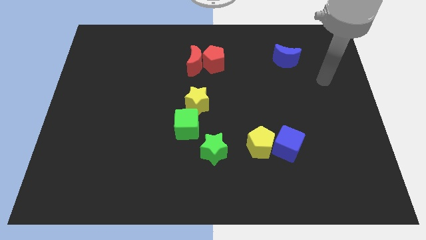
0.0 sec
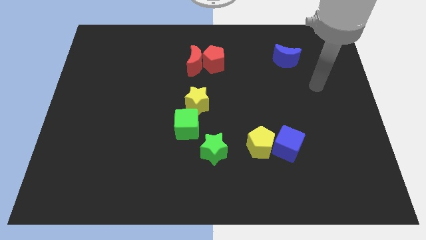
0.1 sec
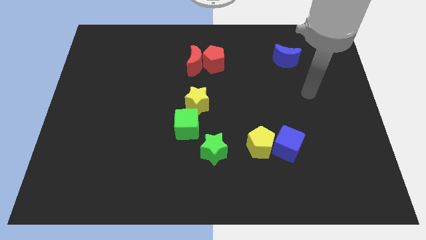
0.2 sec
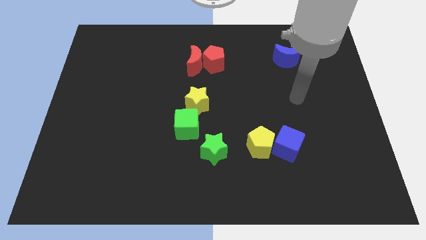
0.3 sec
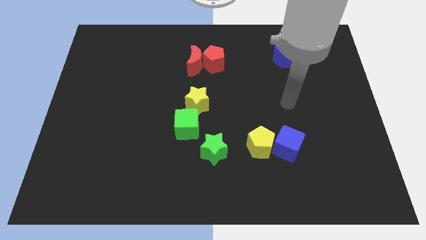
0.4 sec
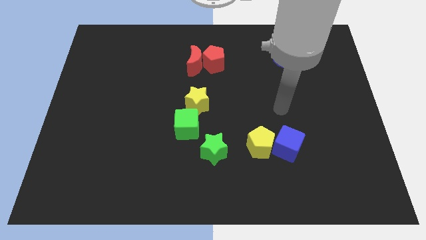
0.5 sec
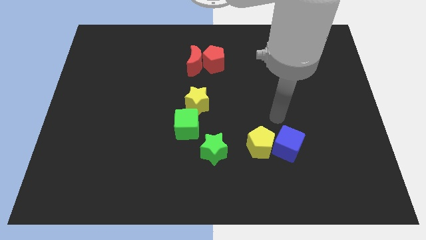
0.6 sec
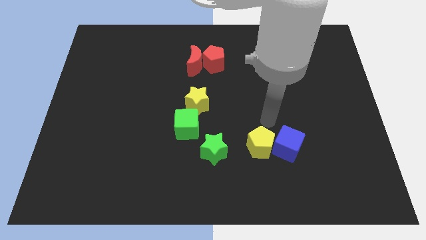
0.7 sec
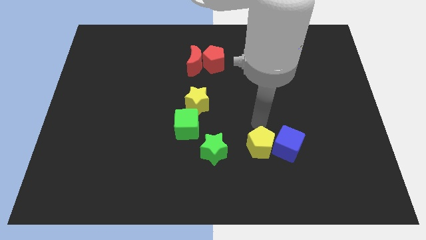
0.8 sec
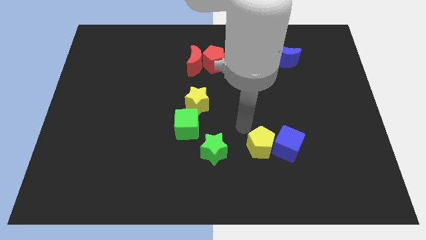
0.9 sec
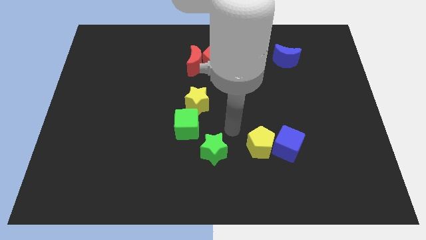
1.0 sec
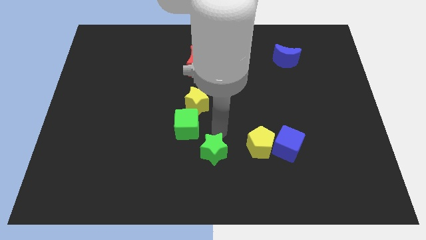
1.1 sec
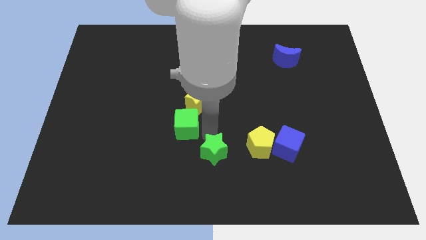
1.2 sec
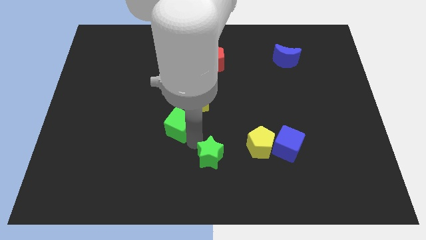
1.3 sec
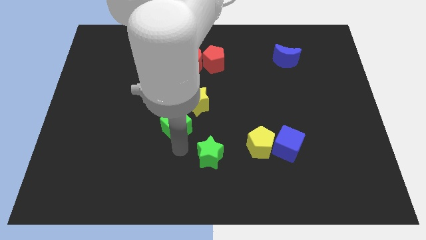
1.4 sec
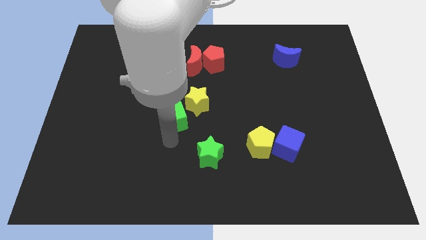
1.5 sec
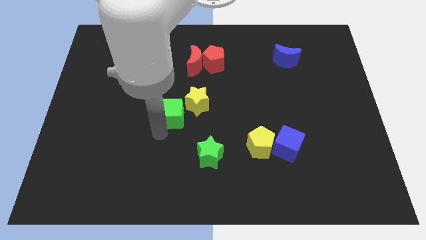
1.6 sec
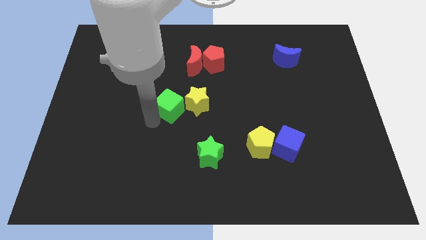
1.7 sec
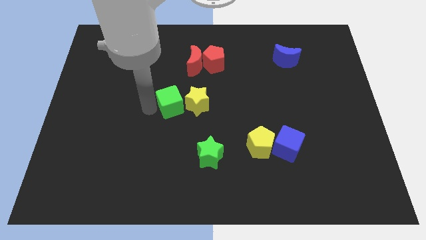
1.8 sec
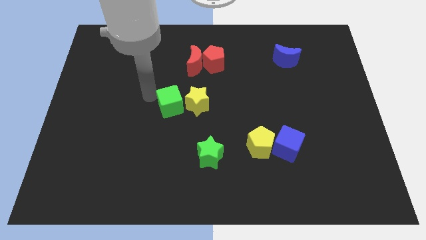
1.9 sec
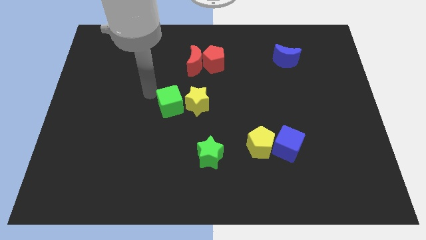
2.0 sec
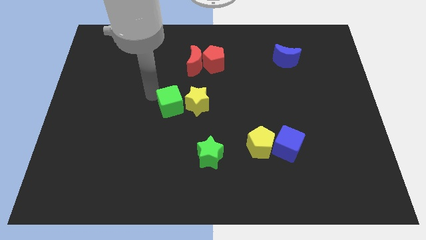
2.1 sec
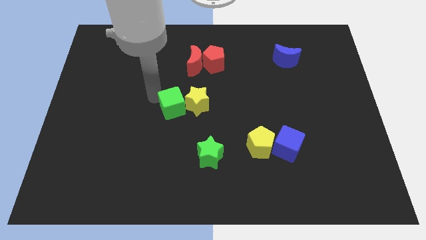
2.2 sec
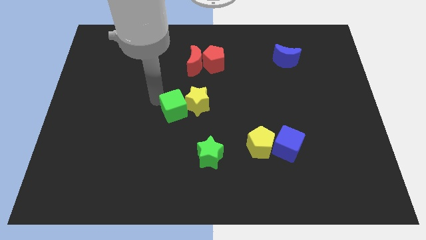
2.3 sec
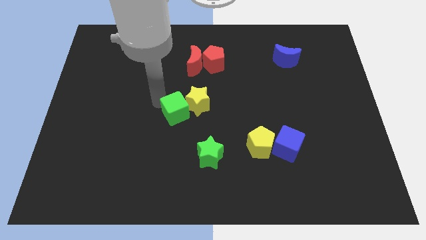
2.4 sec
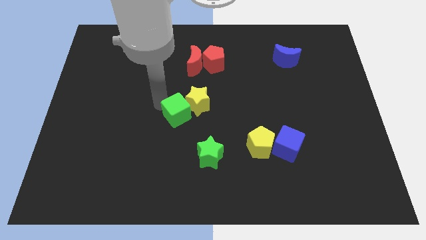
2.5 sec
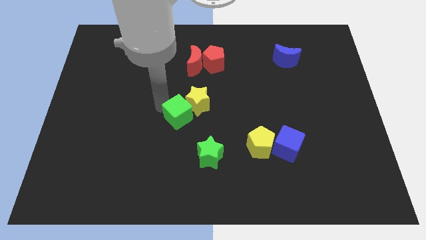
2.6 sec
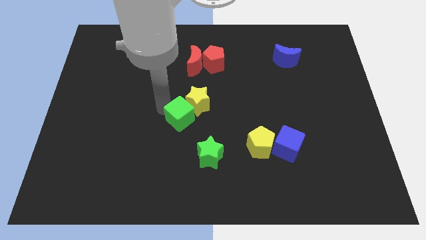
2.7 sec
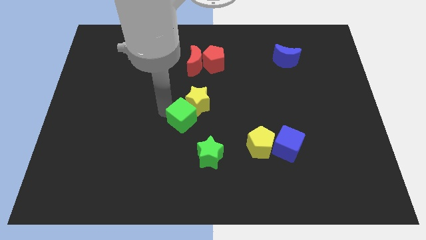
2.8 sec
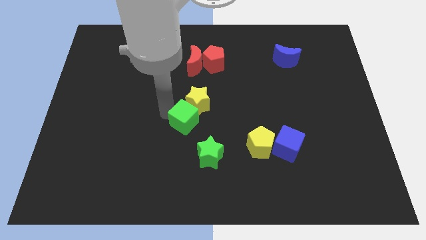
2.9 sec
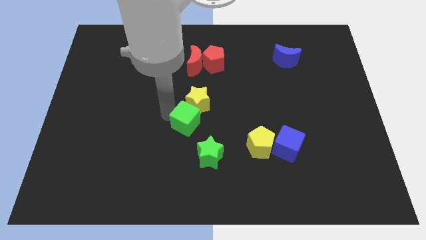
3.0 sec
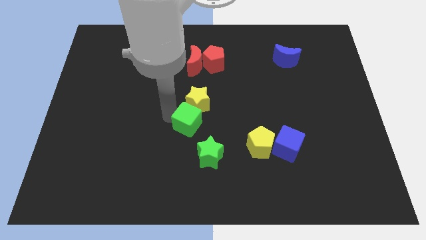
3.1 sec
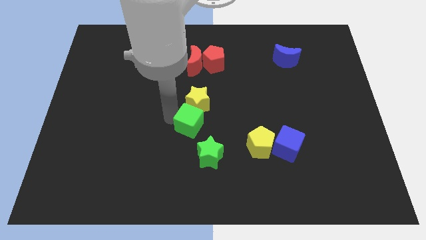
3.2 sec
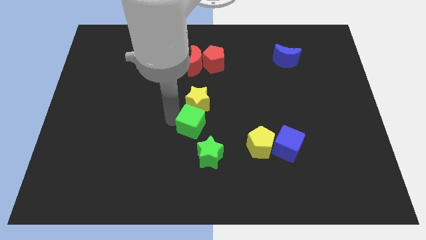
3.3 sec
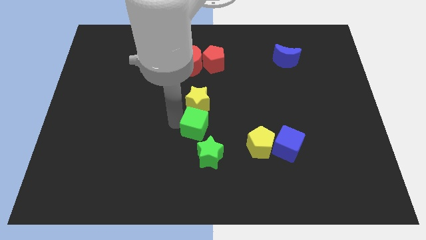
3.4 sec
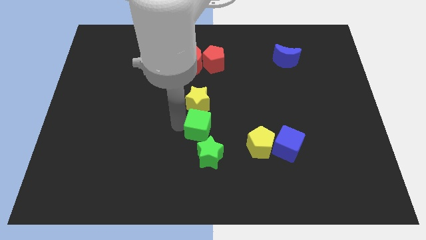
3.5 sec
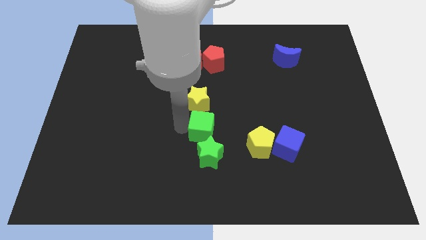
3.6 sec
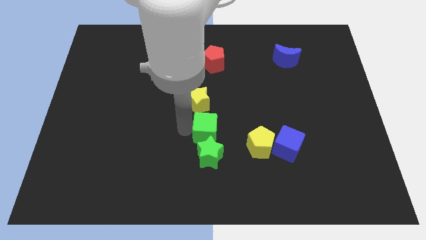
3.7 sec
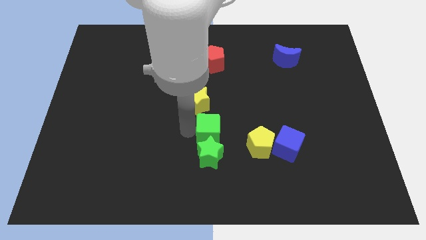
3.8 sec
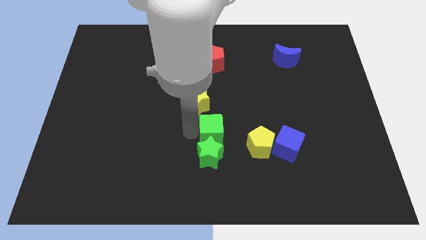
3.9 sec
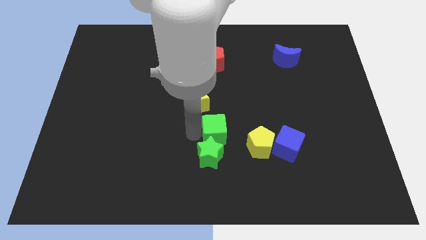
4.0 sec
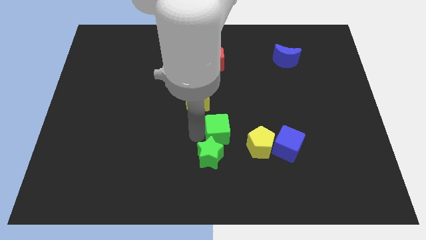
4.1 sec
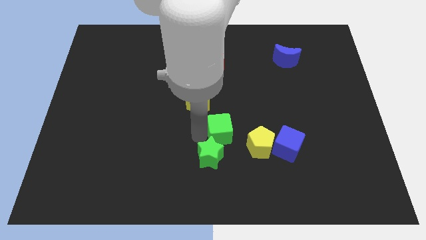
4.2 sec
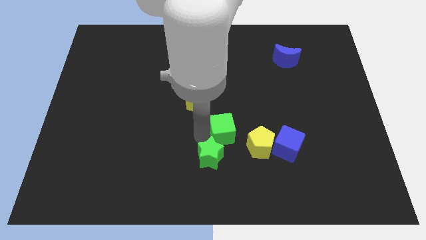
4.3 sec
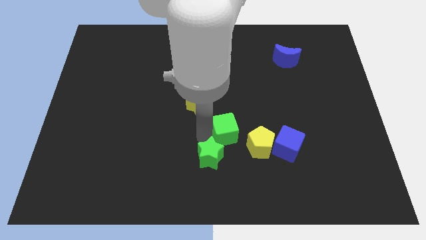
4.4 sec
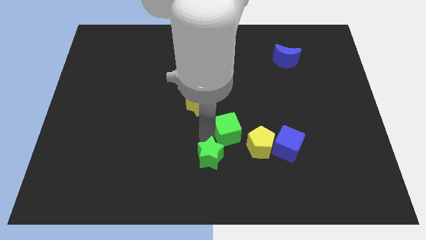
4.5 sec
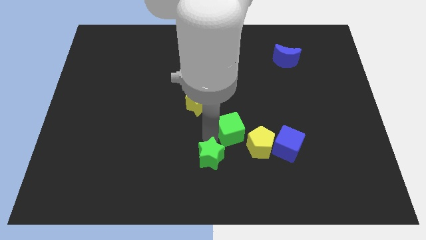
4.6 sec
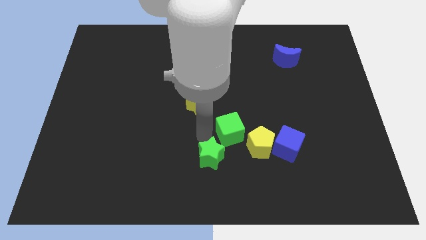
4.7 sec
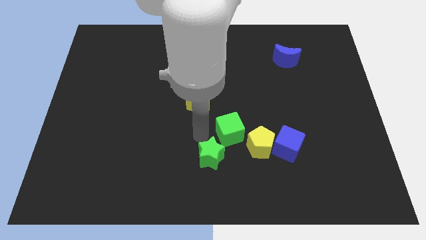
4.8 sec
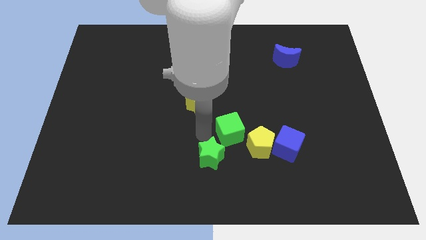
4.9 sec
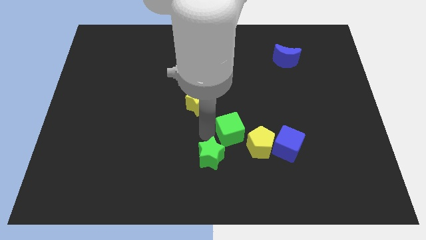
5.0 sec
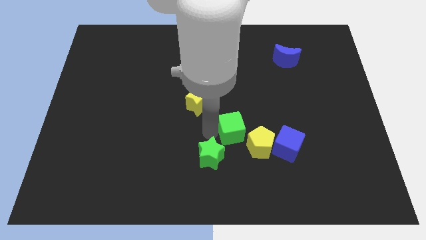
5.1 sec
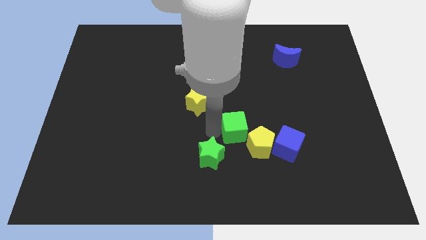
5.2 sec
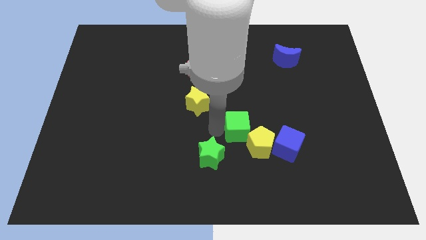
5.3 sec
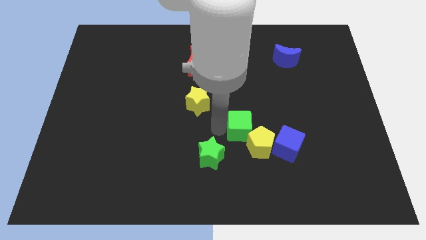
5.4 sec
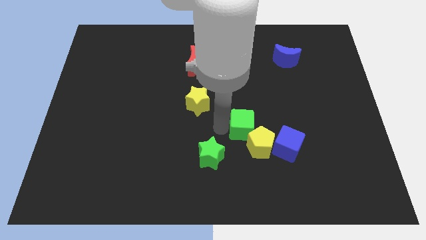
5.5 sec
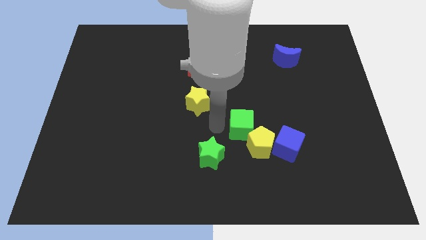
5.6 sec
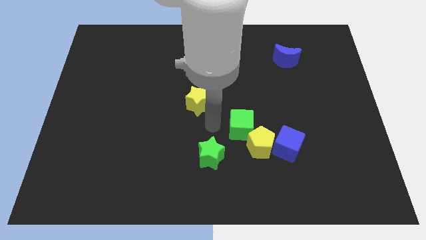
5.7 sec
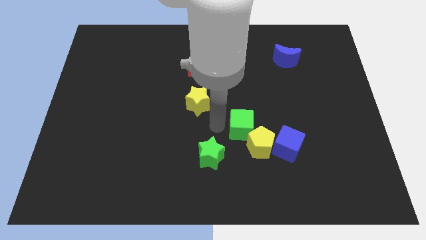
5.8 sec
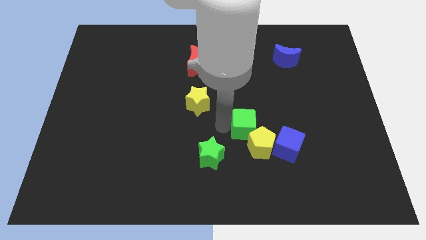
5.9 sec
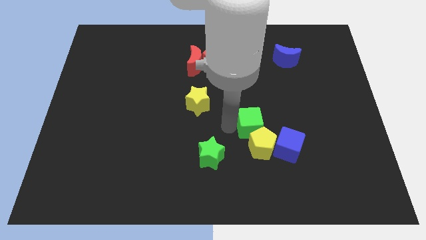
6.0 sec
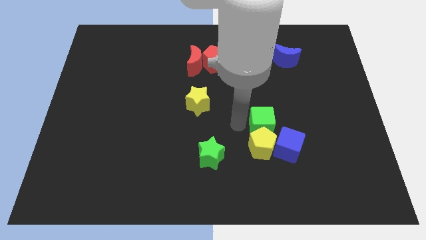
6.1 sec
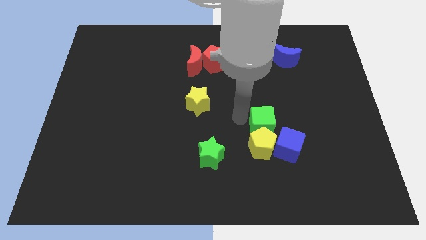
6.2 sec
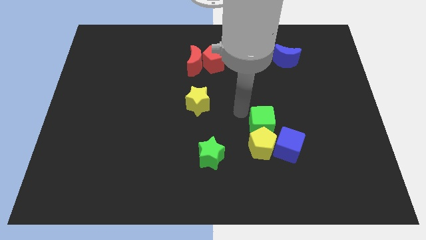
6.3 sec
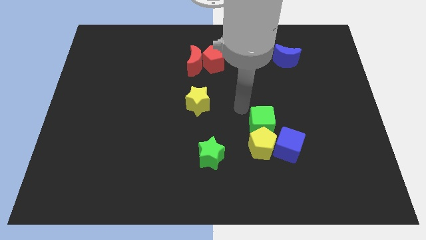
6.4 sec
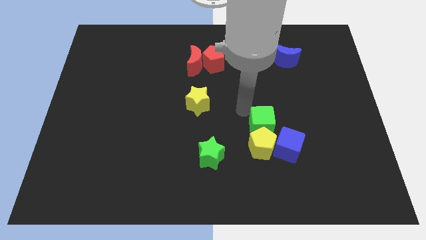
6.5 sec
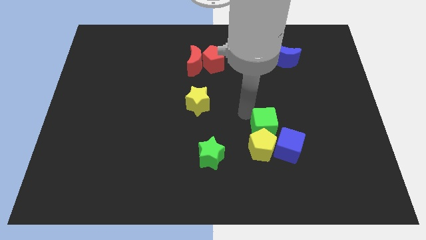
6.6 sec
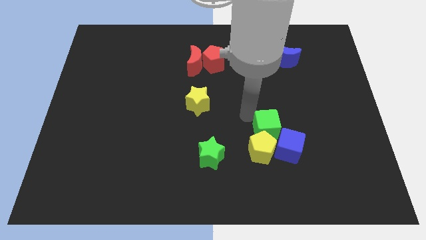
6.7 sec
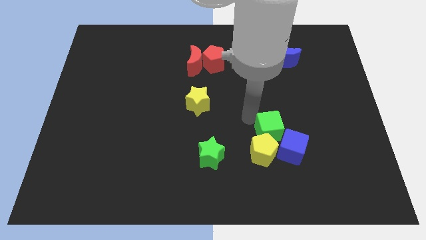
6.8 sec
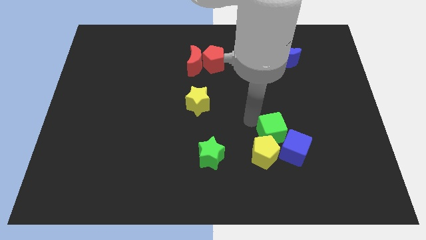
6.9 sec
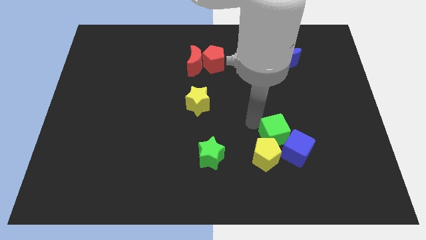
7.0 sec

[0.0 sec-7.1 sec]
put the green cube towards the blue cube
